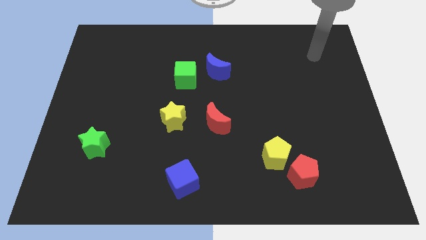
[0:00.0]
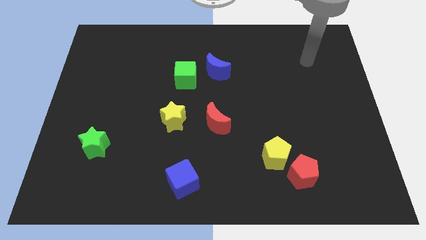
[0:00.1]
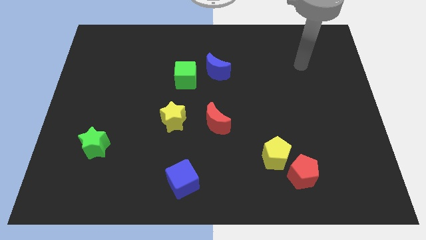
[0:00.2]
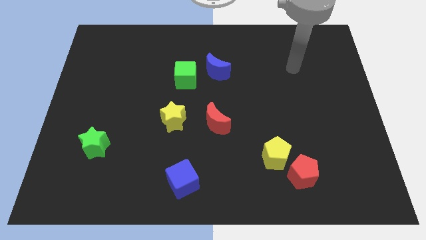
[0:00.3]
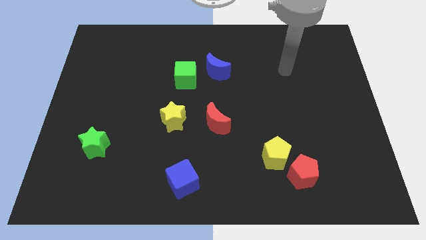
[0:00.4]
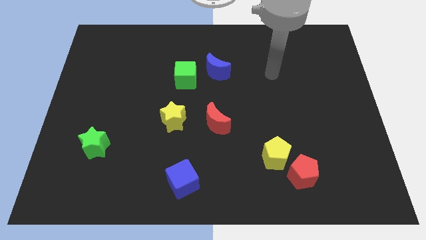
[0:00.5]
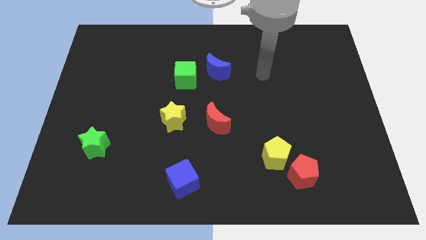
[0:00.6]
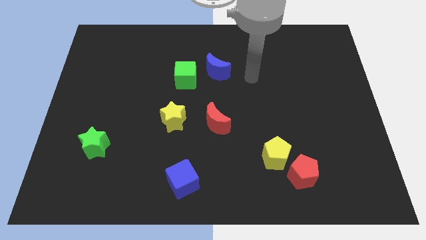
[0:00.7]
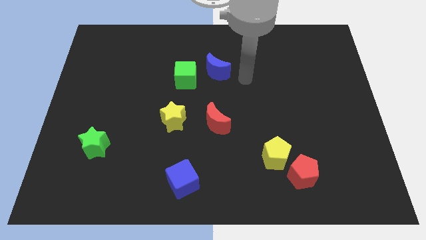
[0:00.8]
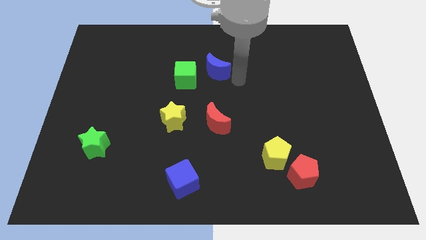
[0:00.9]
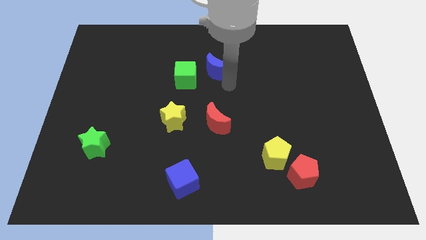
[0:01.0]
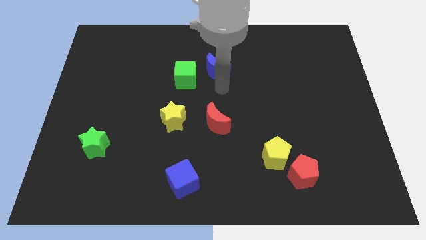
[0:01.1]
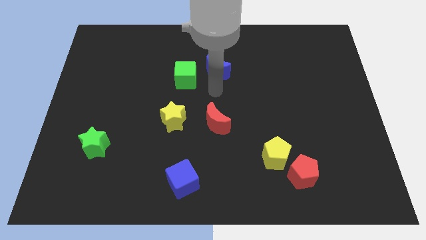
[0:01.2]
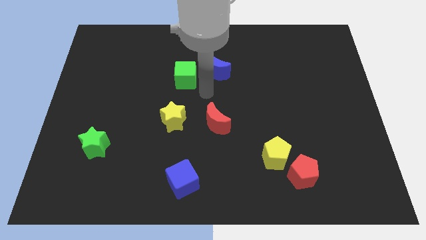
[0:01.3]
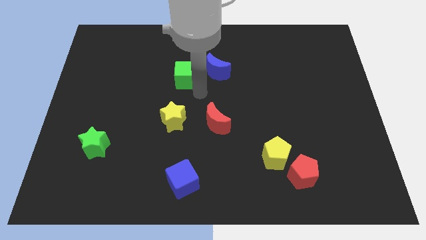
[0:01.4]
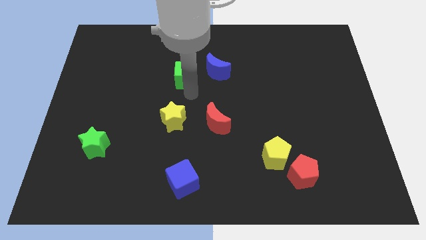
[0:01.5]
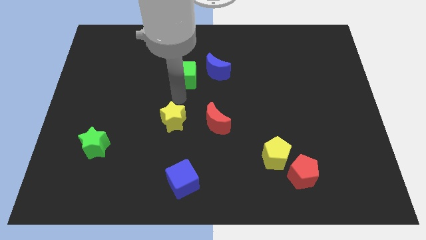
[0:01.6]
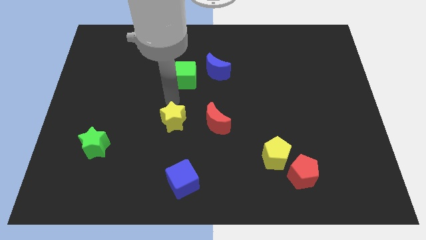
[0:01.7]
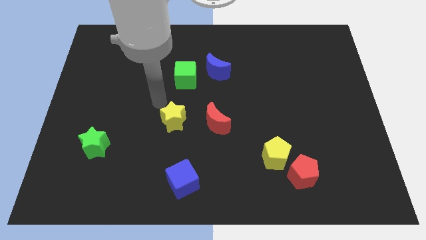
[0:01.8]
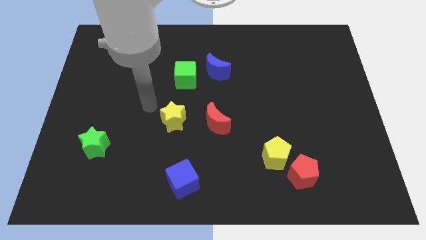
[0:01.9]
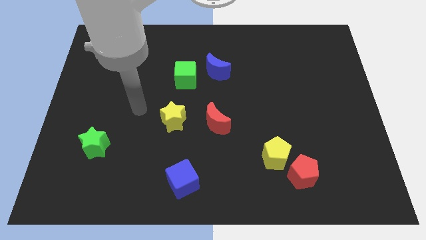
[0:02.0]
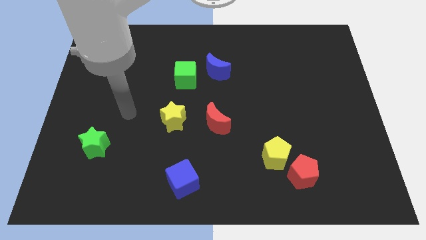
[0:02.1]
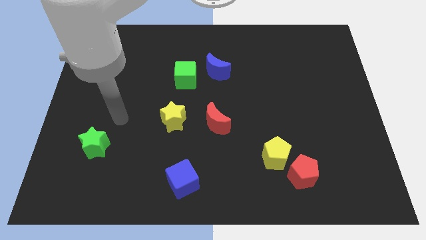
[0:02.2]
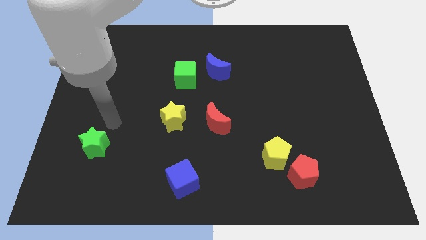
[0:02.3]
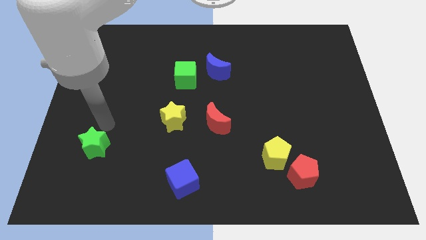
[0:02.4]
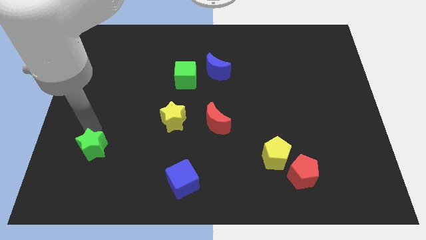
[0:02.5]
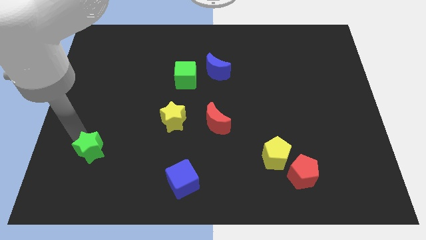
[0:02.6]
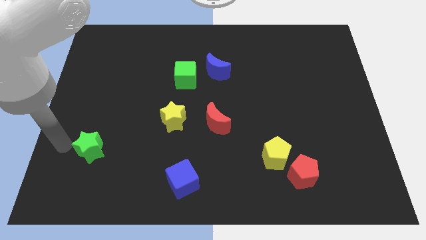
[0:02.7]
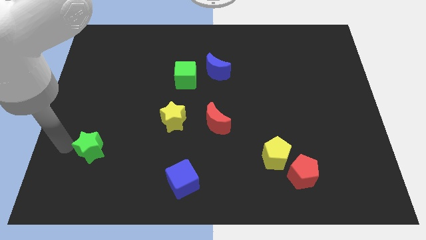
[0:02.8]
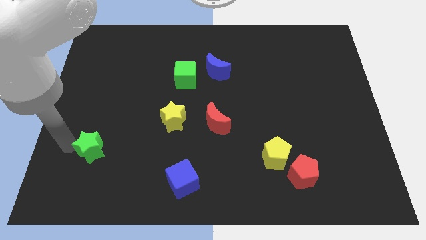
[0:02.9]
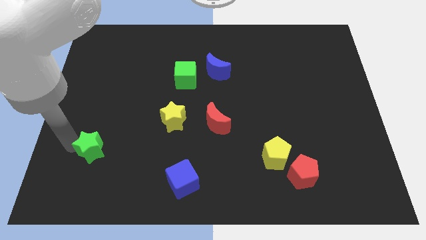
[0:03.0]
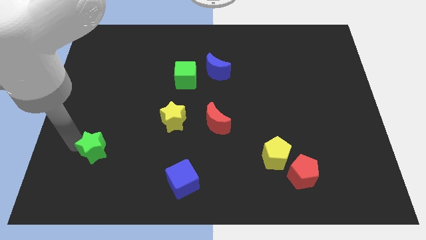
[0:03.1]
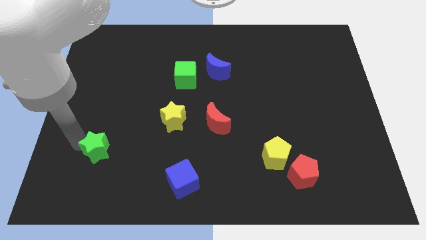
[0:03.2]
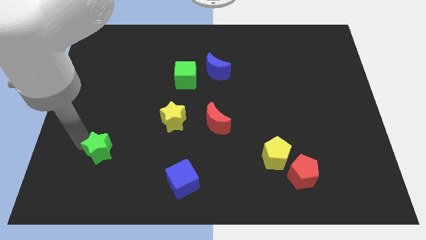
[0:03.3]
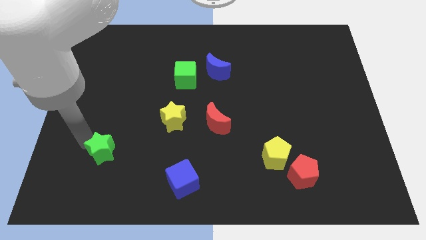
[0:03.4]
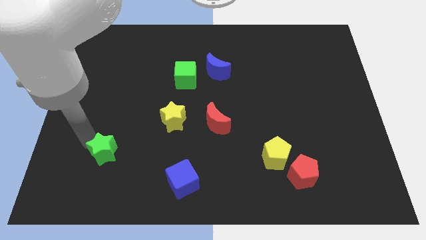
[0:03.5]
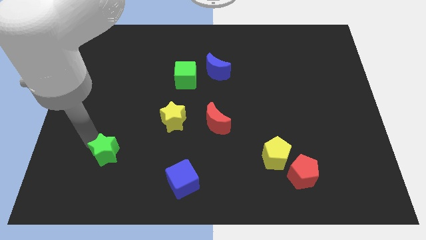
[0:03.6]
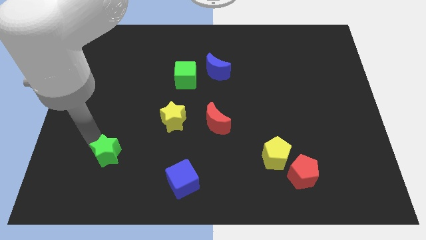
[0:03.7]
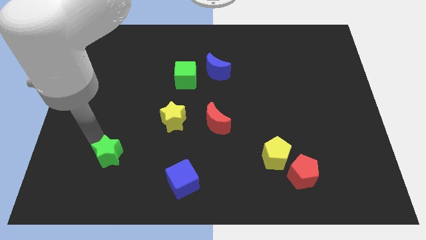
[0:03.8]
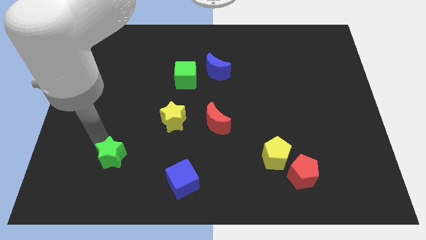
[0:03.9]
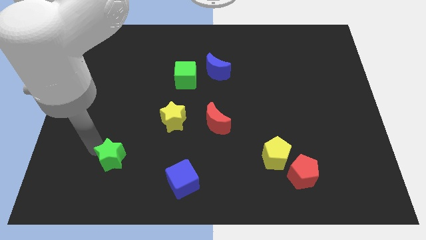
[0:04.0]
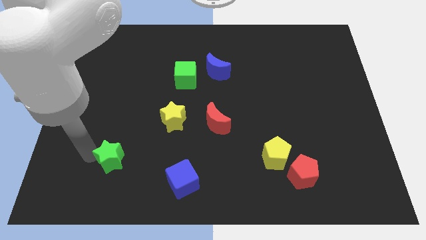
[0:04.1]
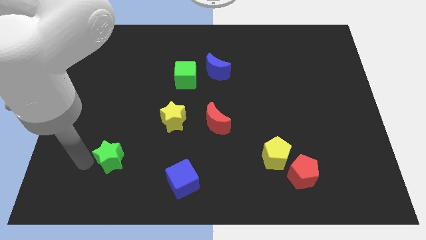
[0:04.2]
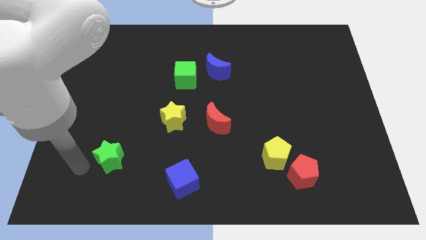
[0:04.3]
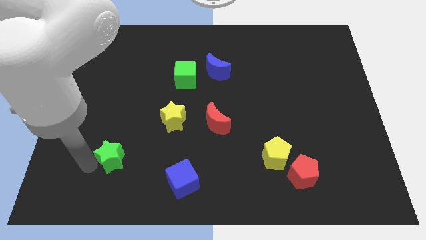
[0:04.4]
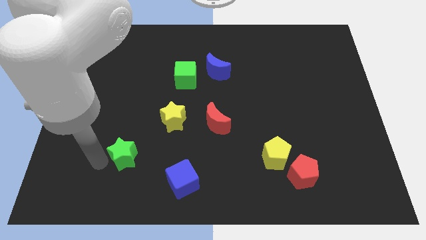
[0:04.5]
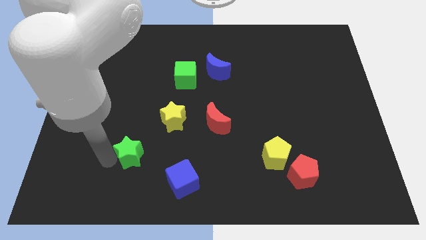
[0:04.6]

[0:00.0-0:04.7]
slide the green star slightly to the right

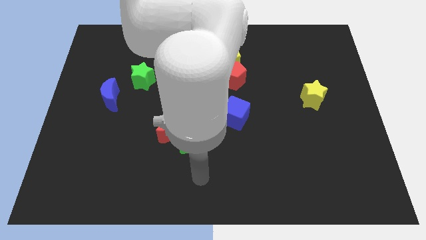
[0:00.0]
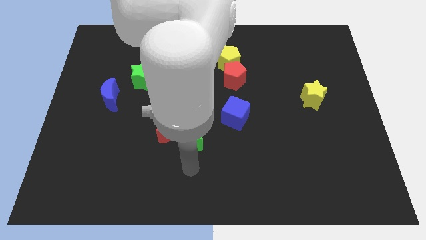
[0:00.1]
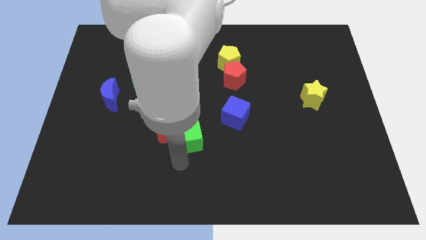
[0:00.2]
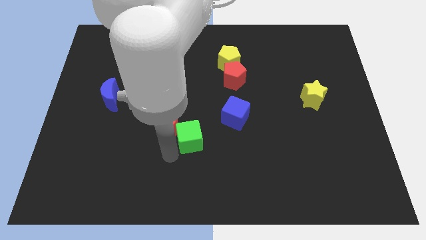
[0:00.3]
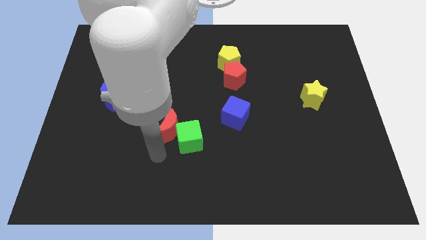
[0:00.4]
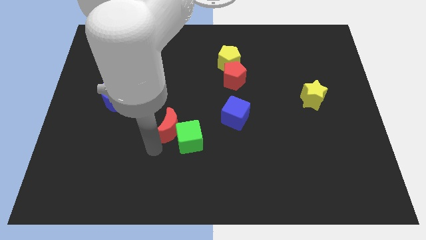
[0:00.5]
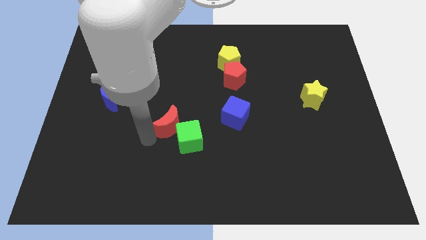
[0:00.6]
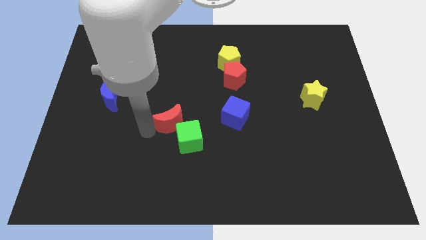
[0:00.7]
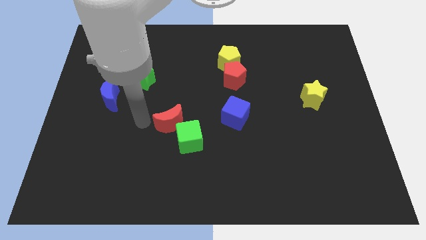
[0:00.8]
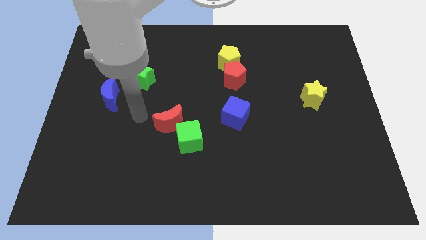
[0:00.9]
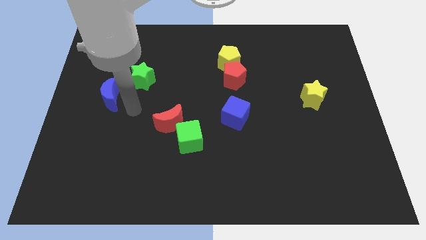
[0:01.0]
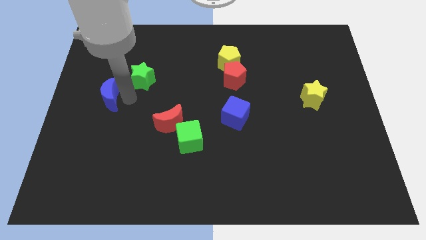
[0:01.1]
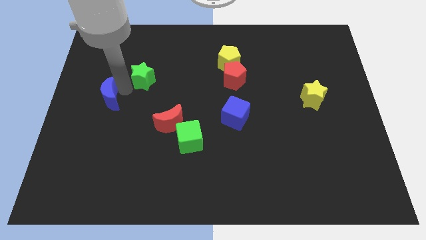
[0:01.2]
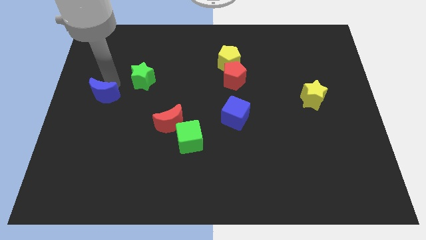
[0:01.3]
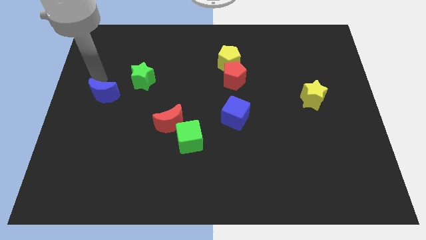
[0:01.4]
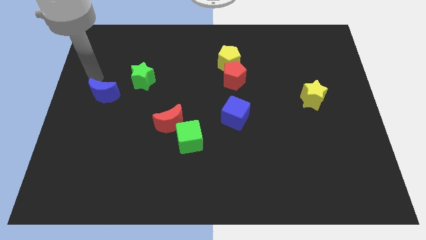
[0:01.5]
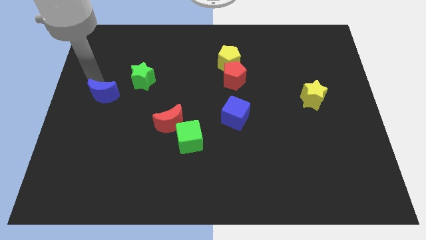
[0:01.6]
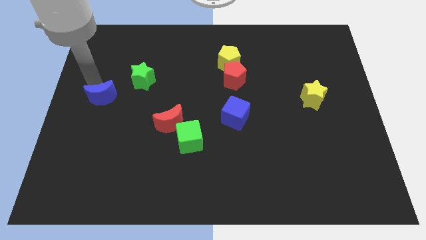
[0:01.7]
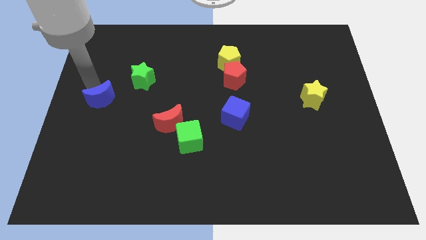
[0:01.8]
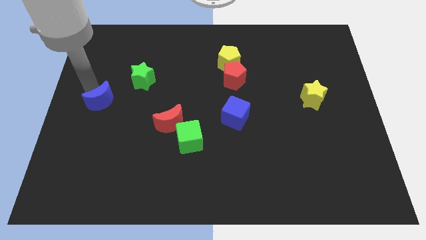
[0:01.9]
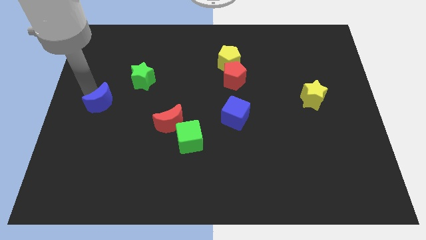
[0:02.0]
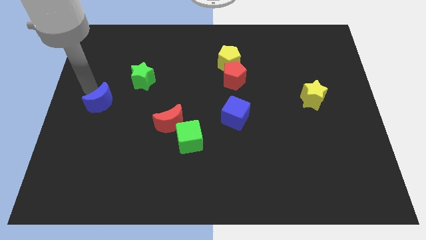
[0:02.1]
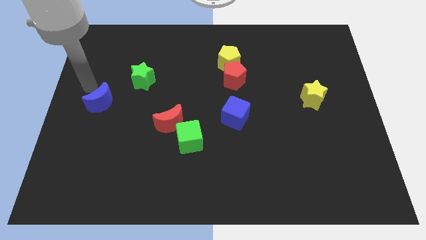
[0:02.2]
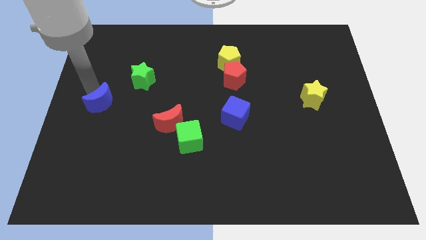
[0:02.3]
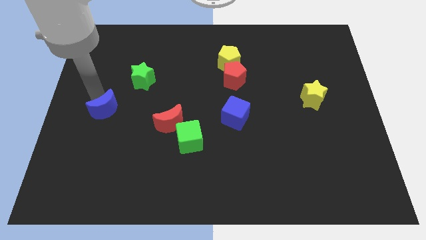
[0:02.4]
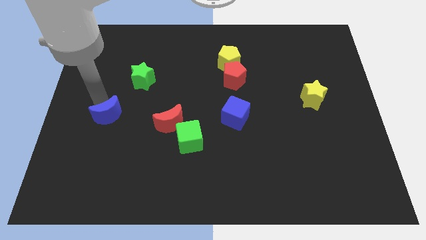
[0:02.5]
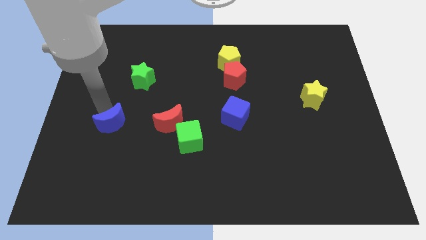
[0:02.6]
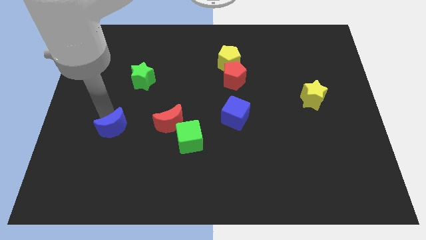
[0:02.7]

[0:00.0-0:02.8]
slide the blue moon a bit down and right

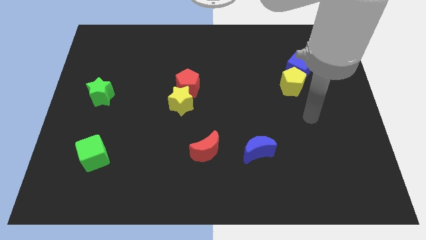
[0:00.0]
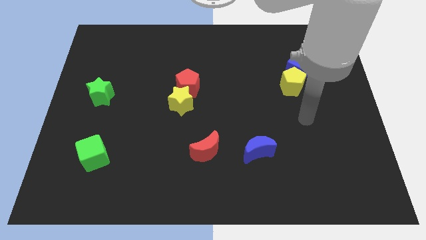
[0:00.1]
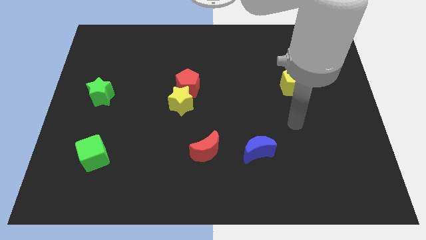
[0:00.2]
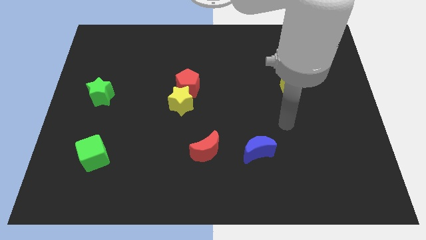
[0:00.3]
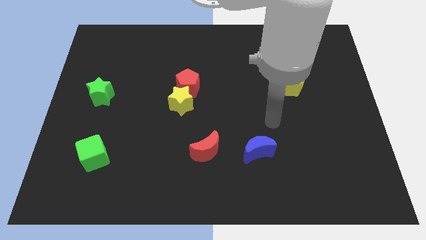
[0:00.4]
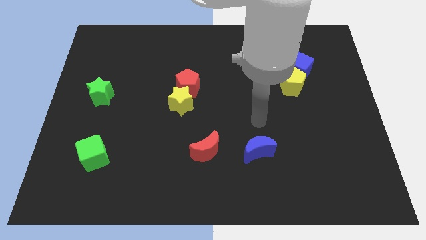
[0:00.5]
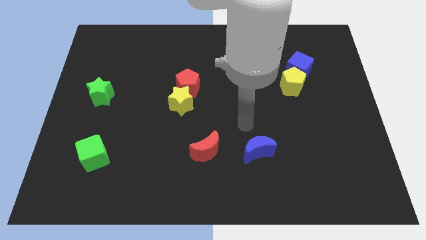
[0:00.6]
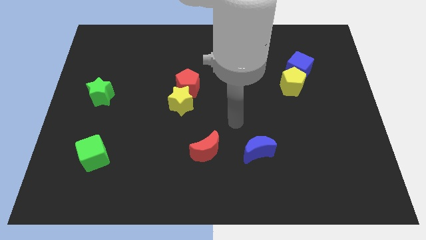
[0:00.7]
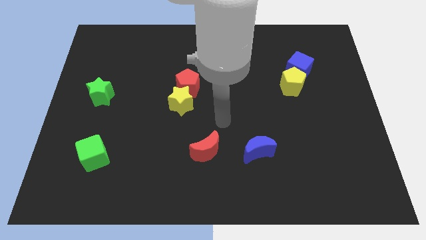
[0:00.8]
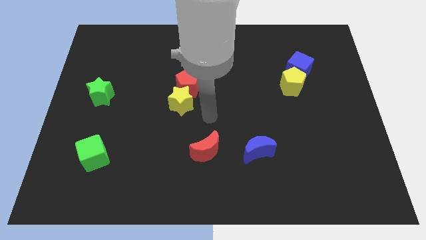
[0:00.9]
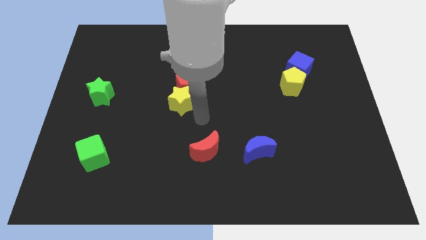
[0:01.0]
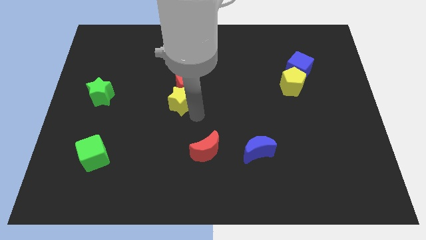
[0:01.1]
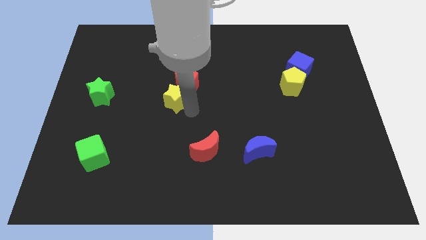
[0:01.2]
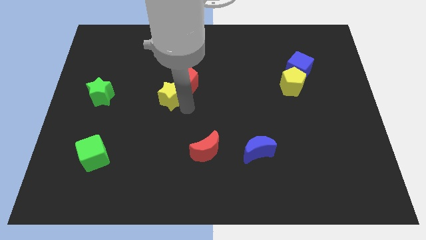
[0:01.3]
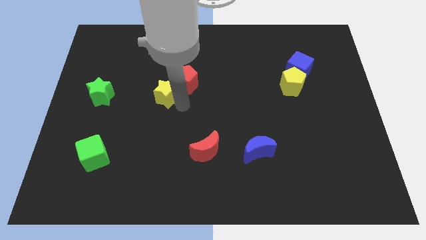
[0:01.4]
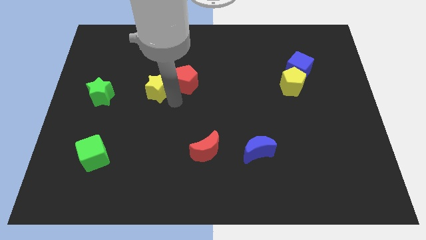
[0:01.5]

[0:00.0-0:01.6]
slide the yellow star up and then to the left a little
